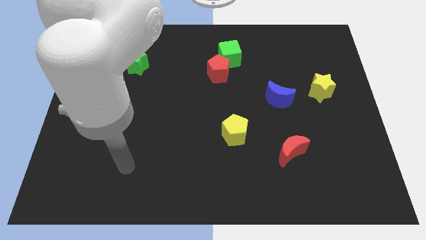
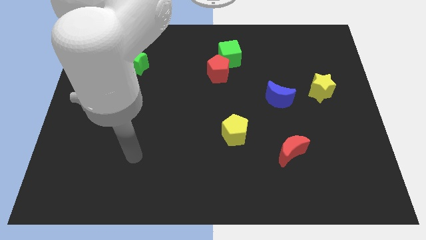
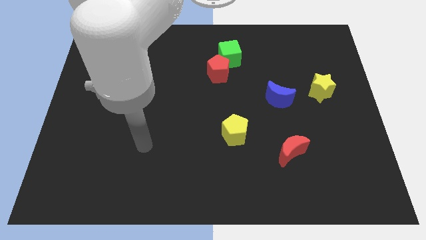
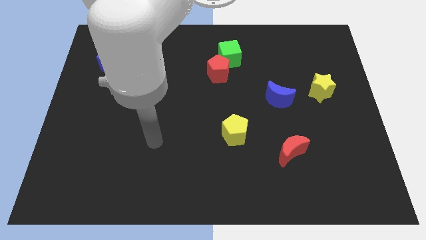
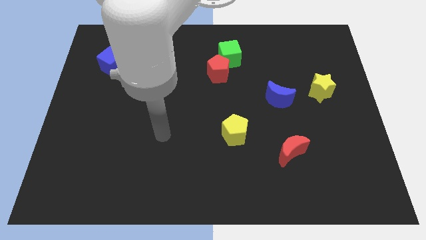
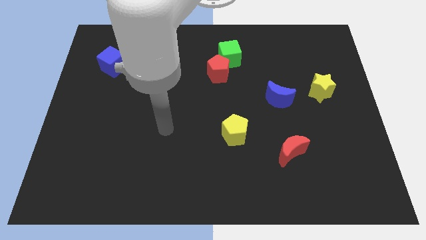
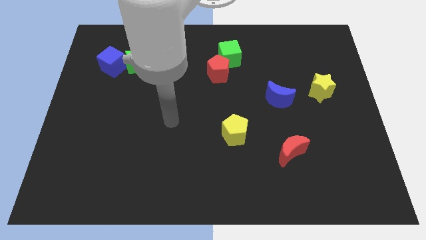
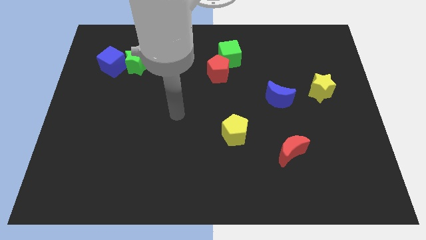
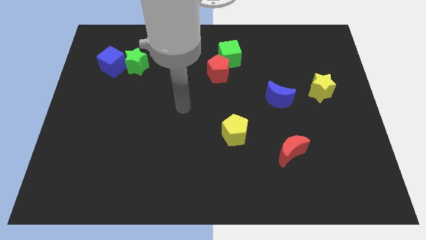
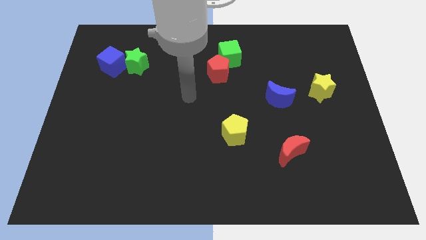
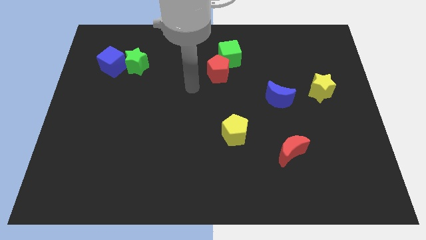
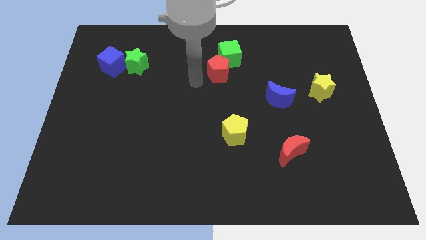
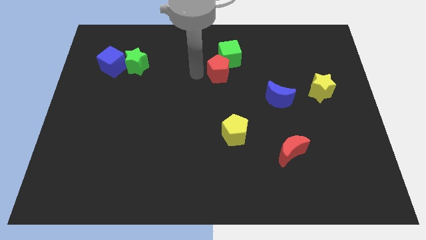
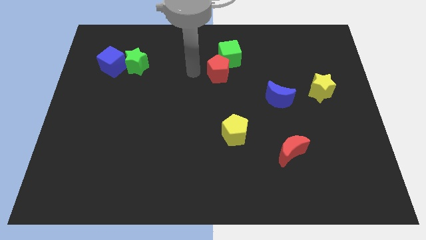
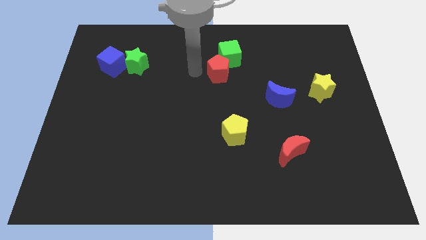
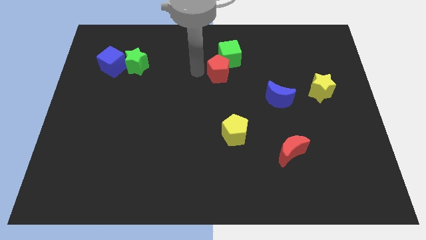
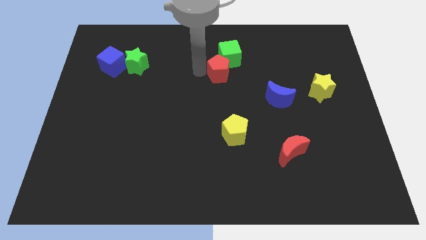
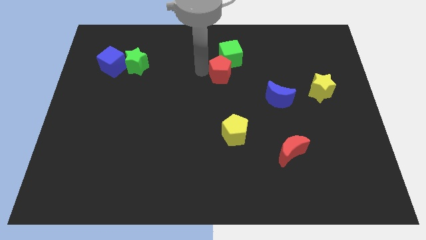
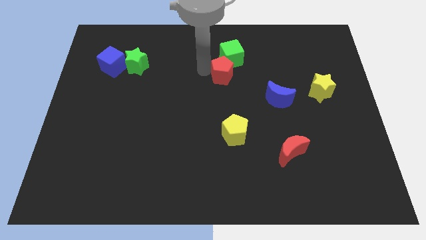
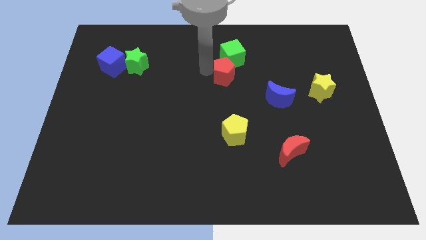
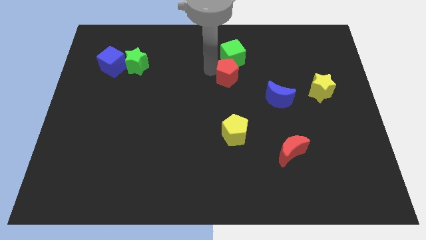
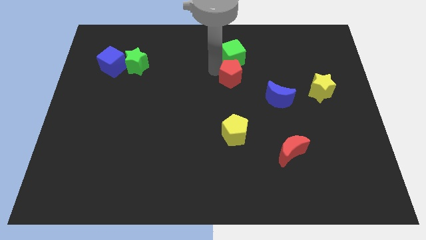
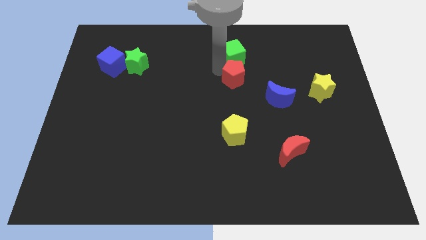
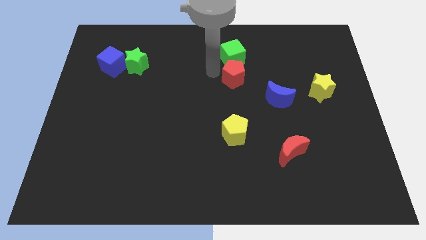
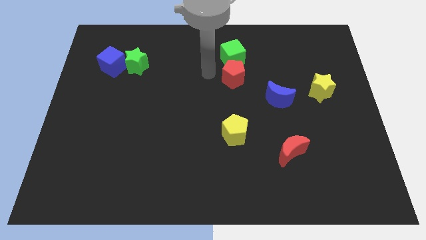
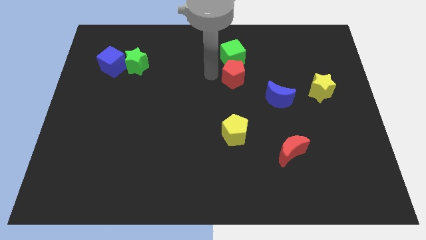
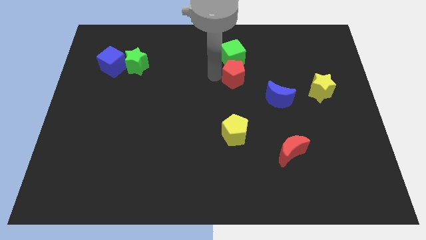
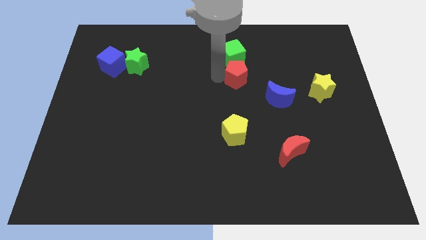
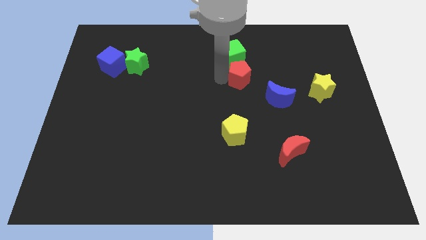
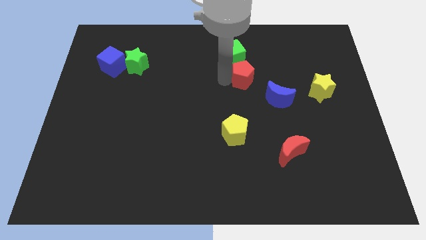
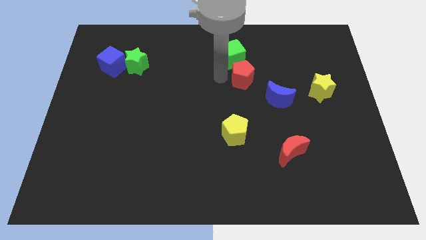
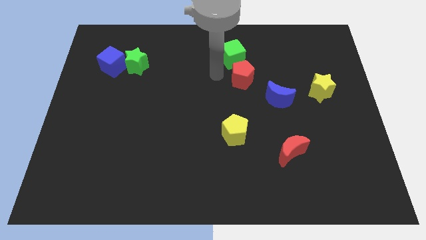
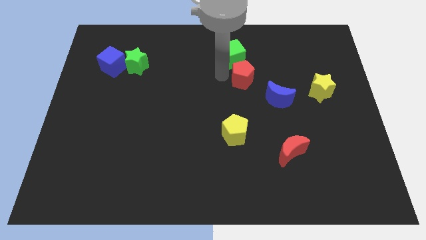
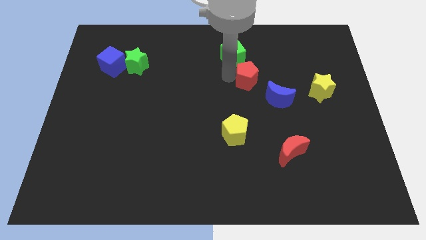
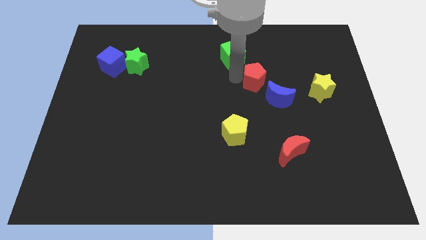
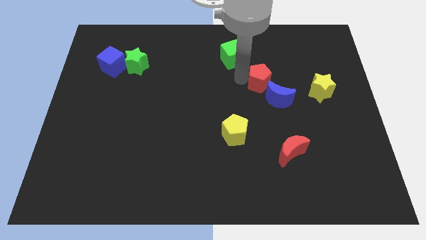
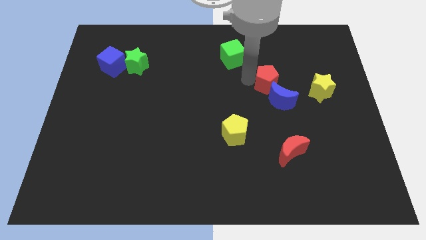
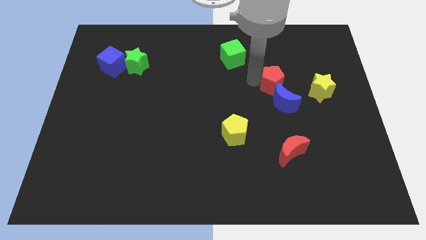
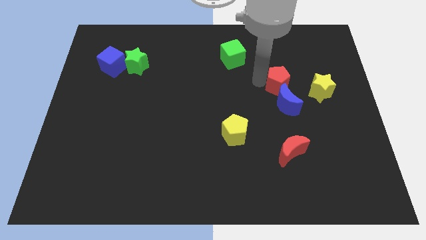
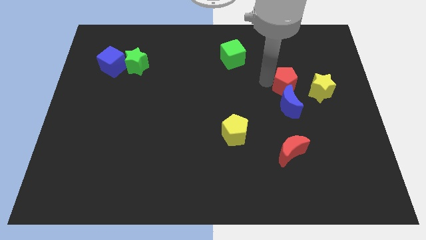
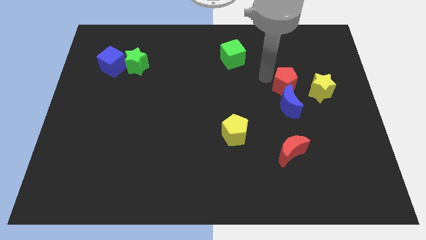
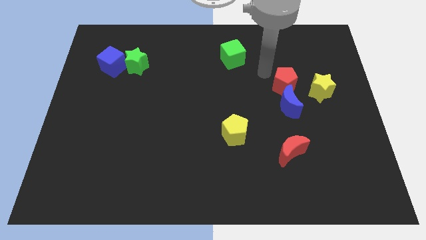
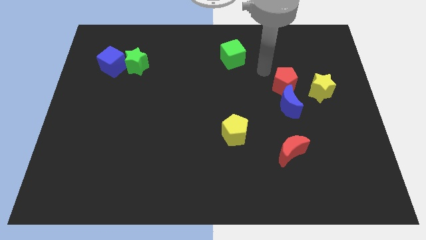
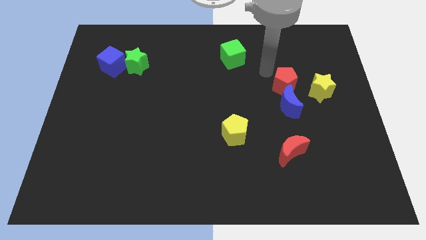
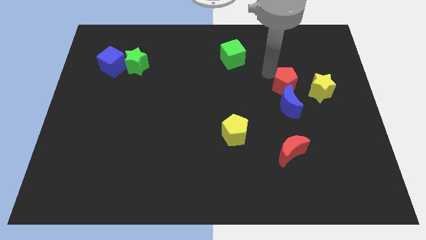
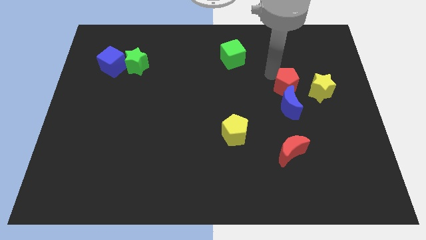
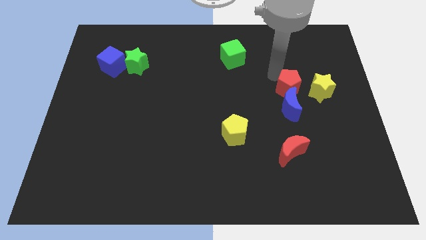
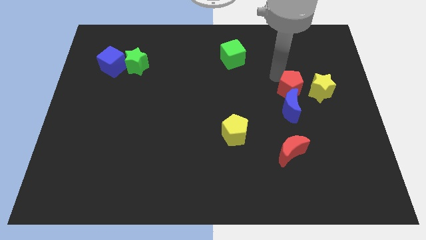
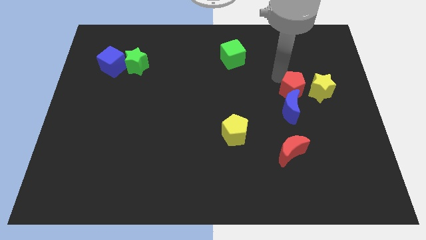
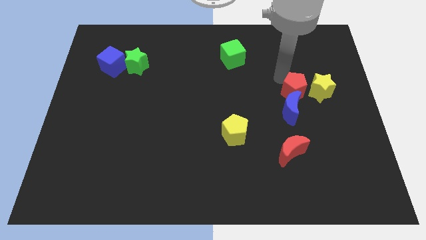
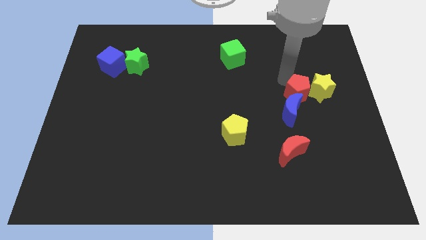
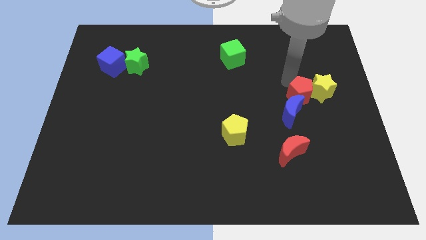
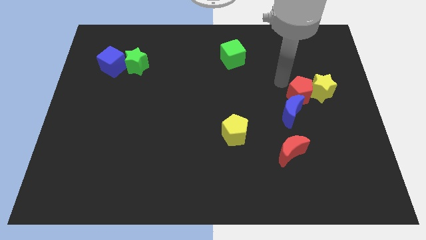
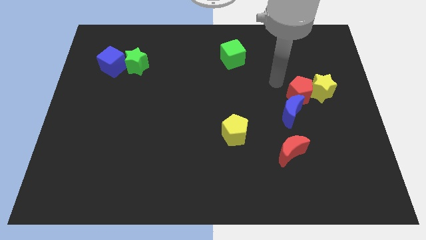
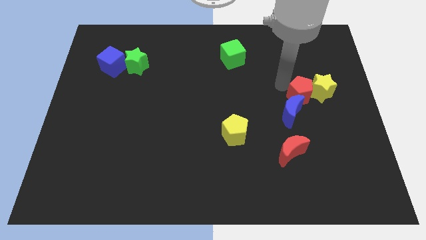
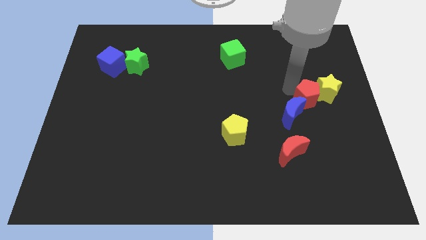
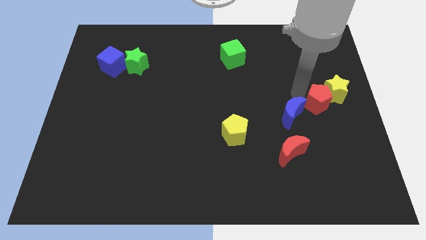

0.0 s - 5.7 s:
slide the red pentagon to the right of the blue moon

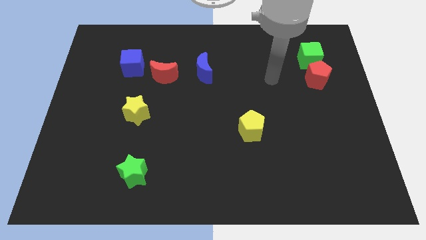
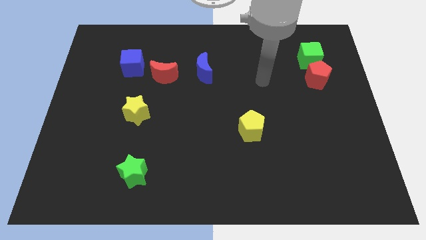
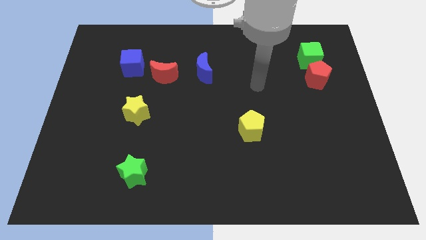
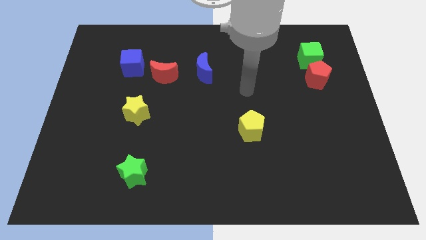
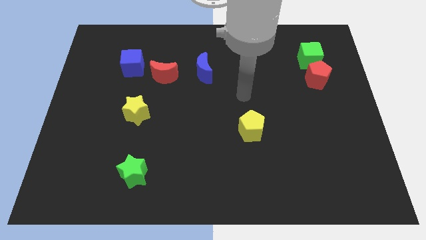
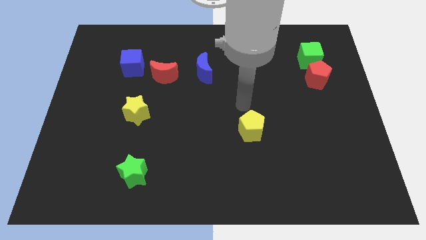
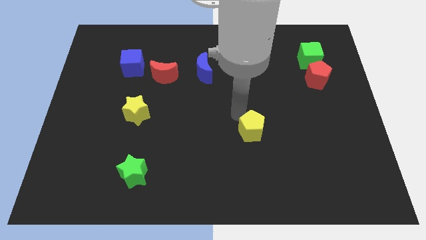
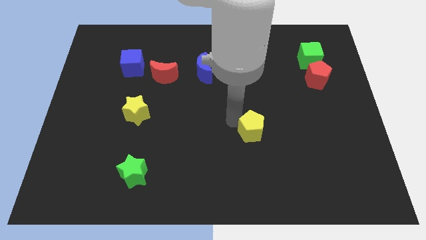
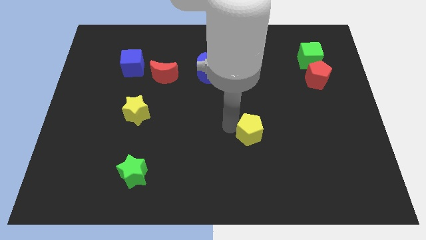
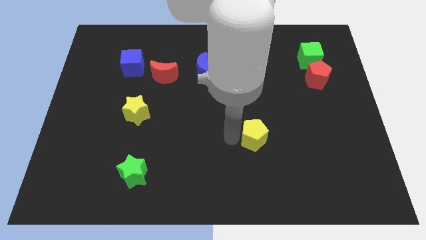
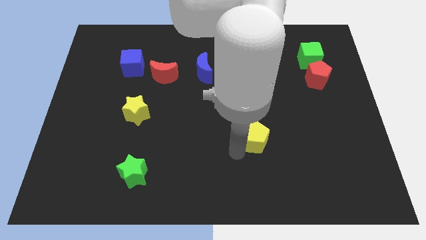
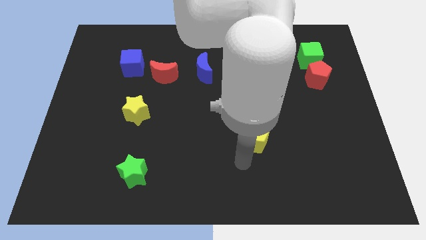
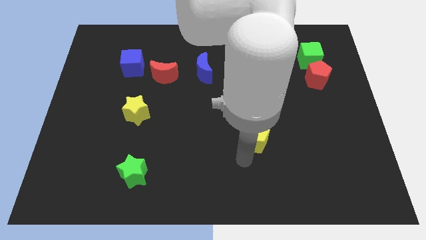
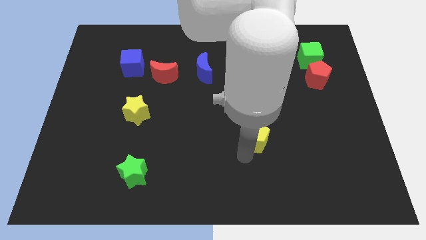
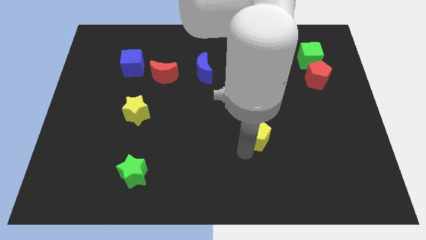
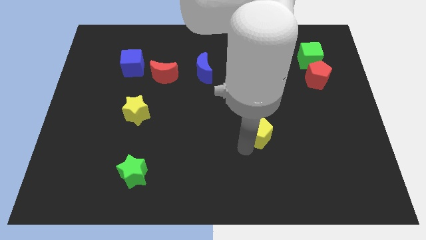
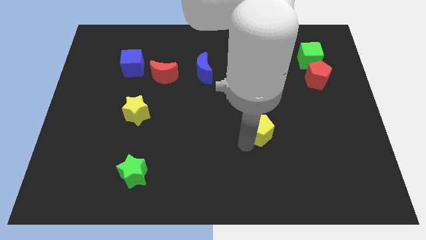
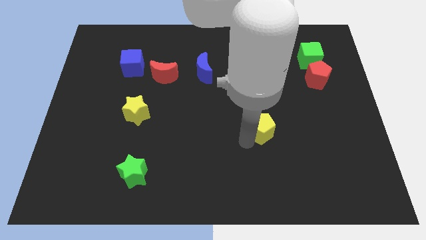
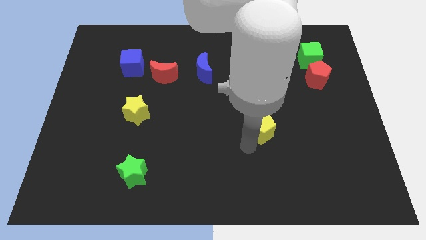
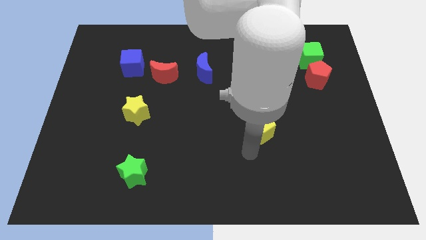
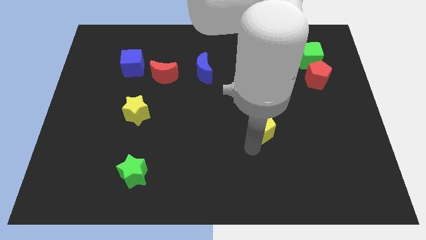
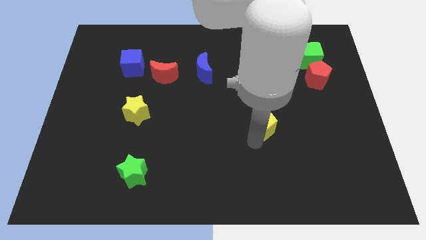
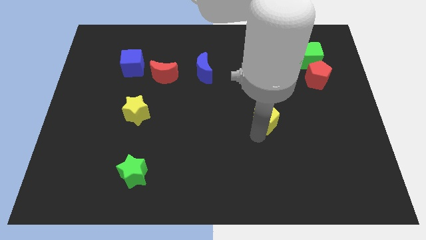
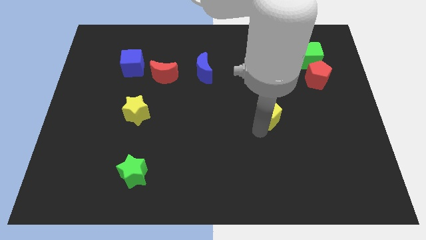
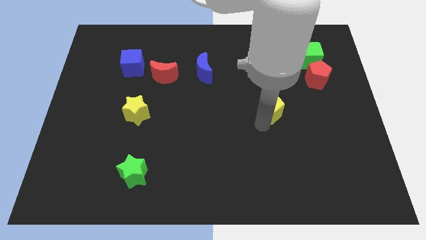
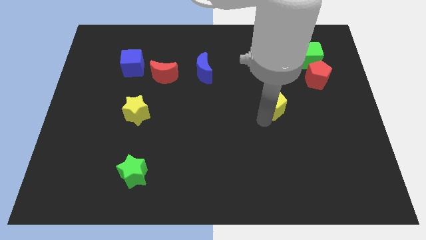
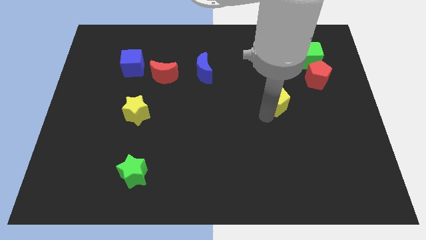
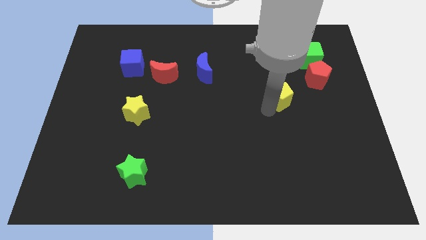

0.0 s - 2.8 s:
put the yellow pentagon to the bottom left of the red pentagon
